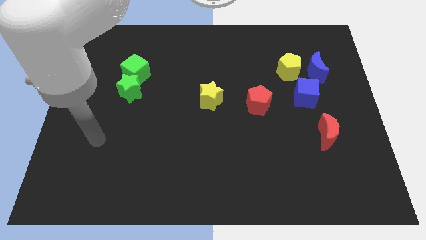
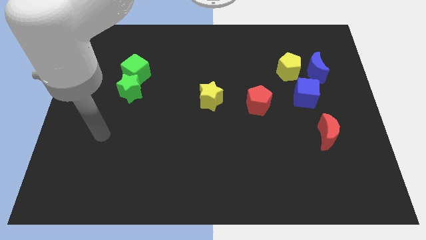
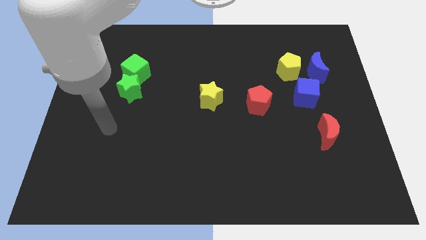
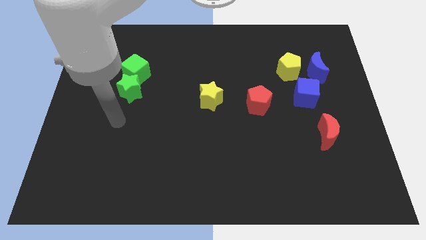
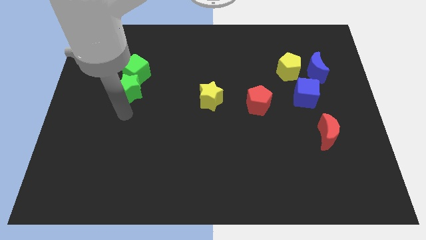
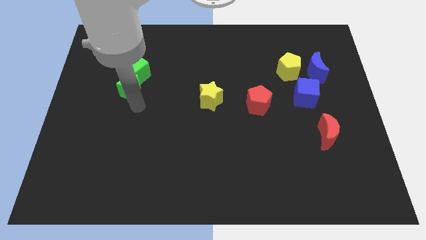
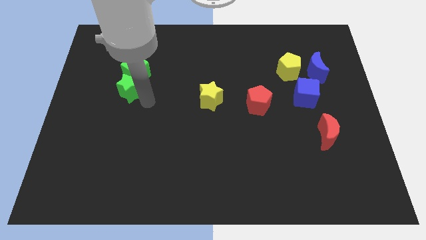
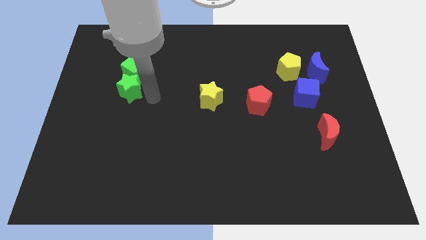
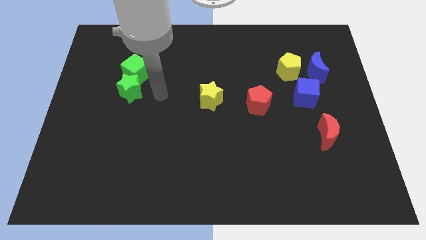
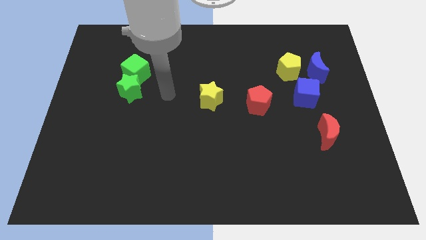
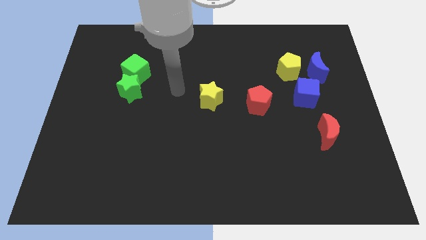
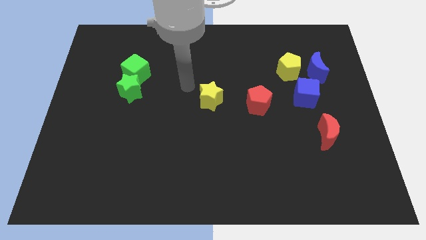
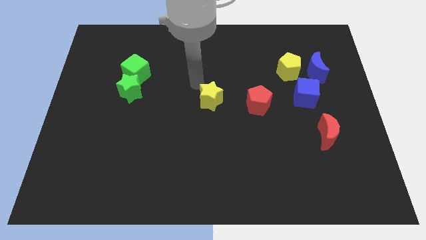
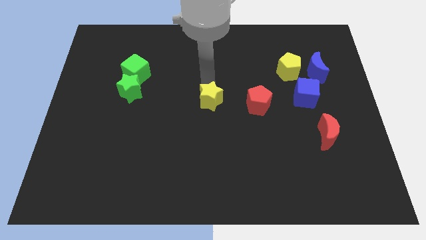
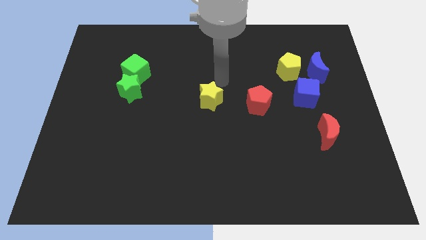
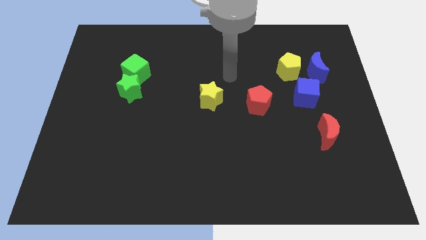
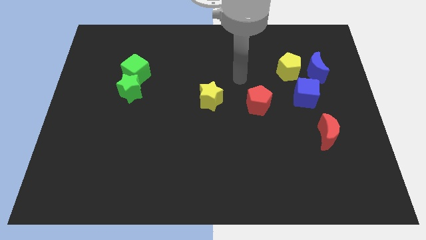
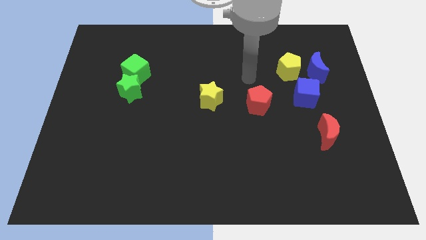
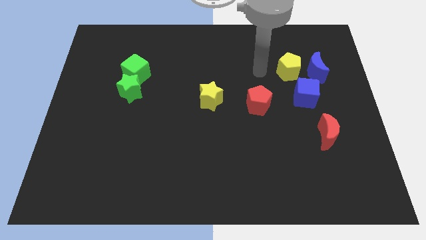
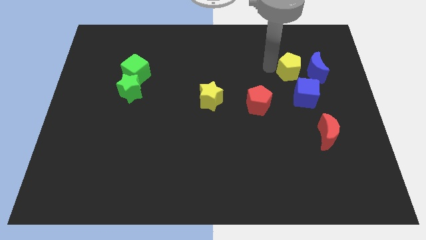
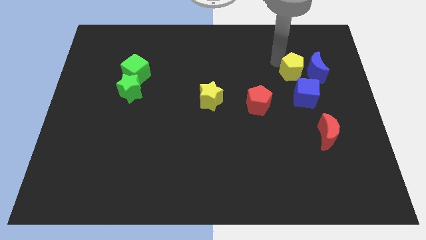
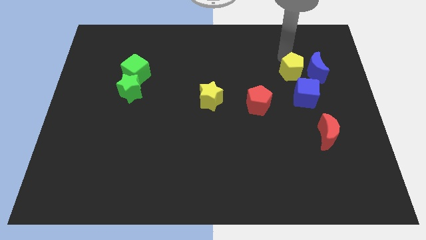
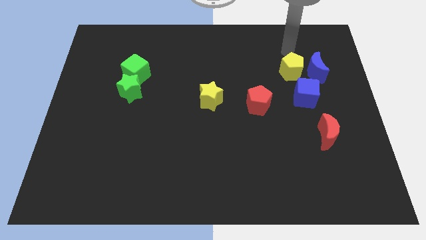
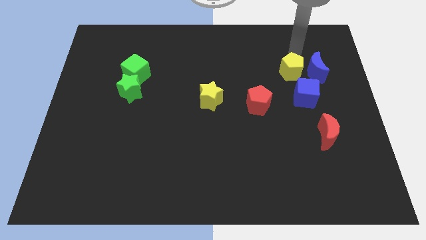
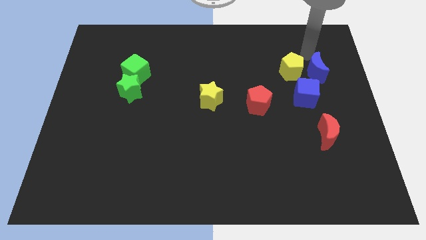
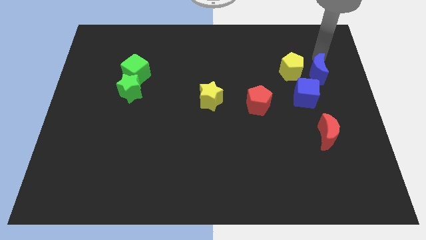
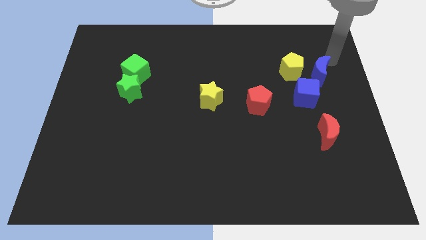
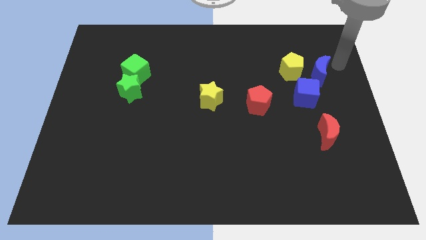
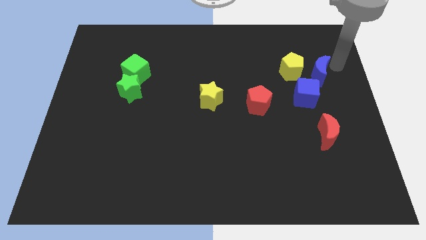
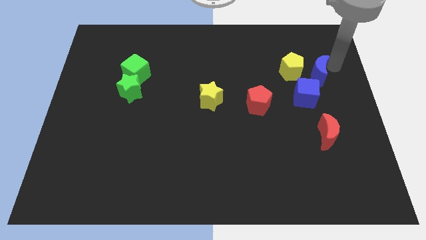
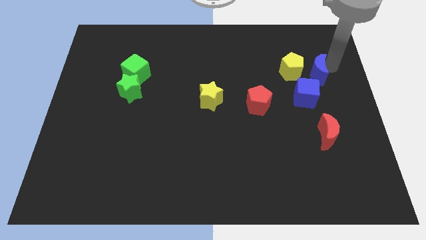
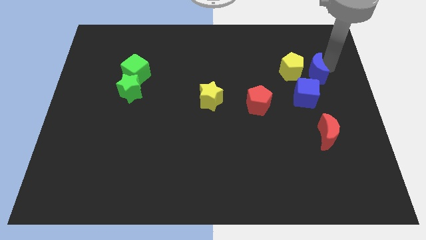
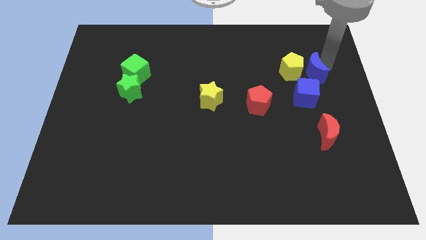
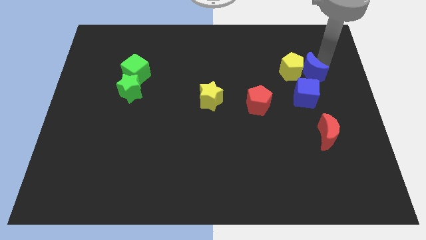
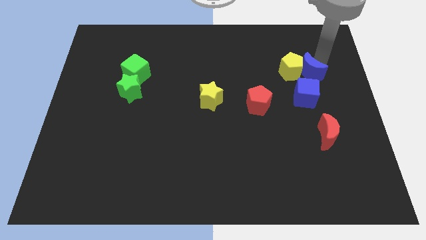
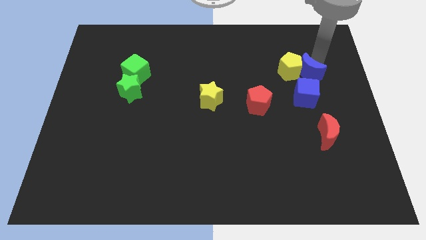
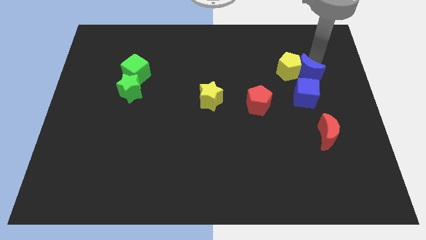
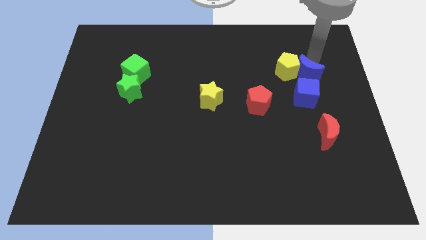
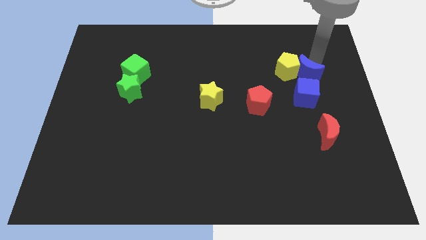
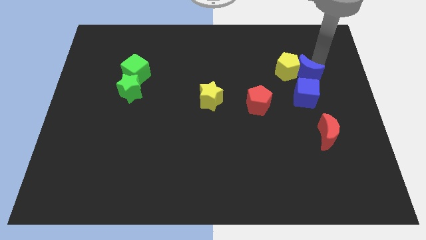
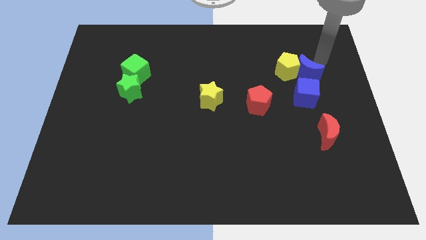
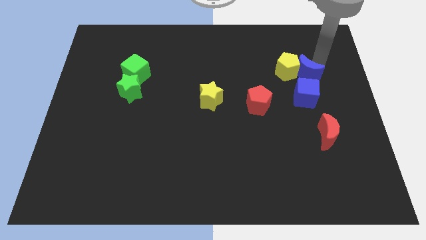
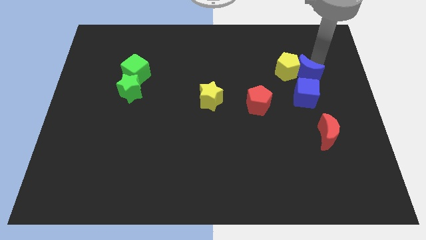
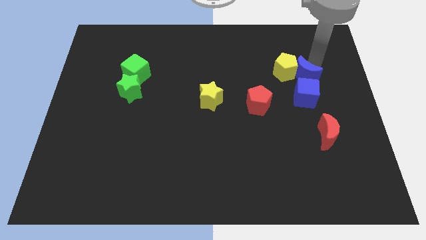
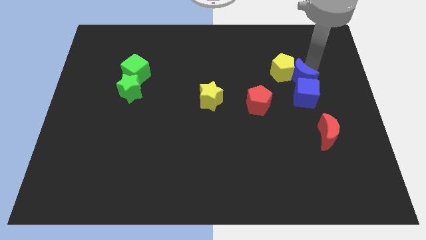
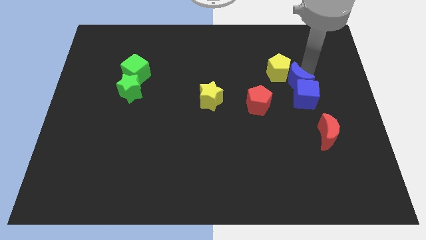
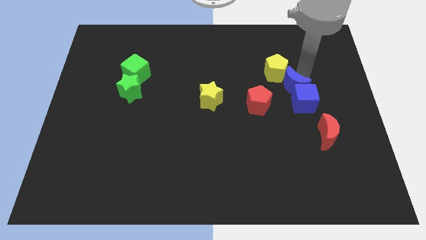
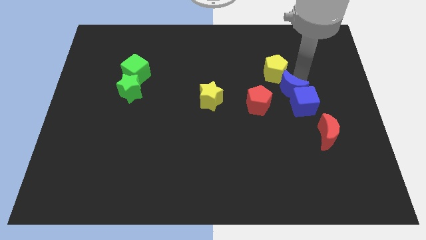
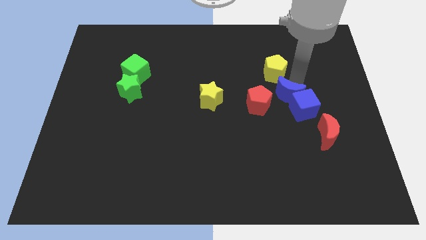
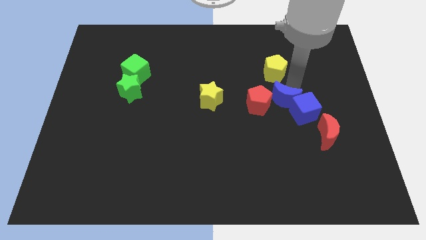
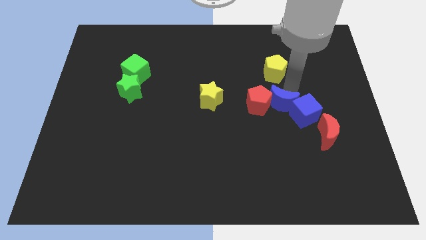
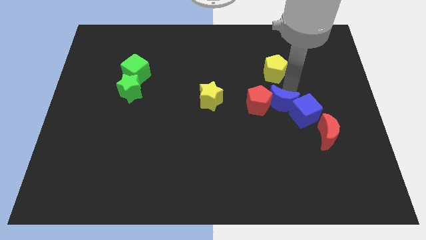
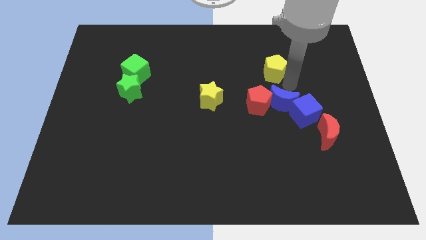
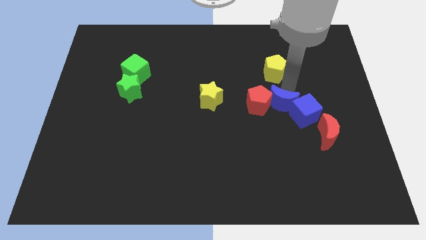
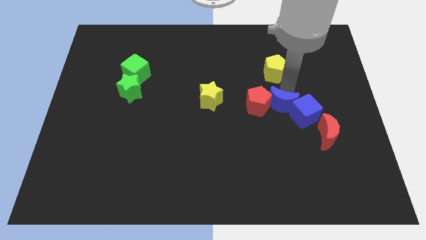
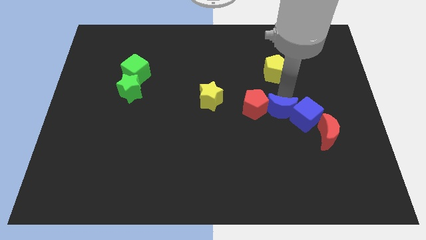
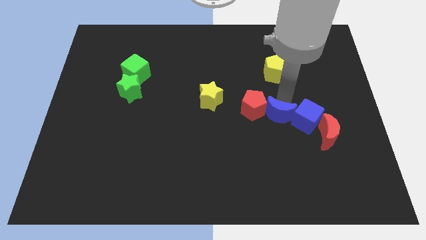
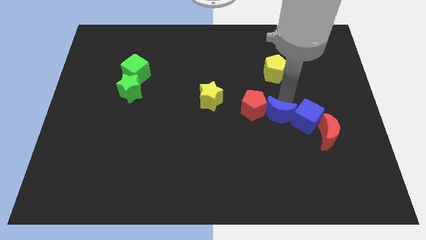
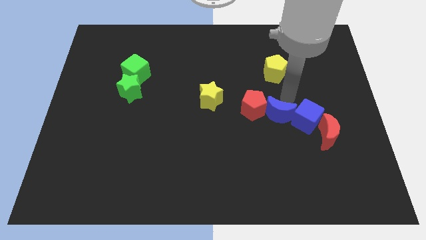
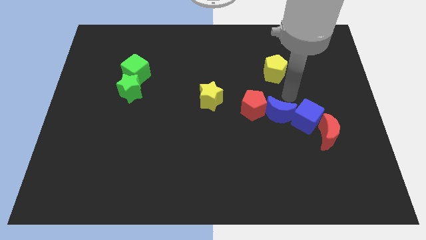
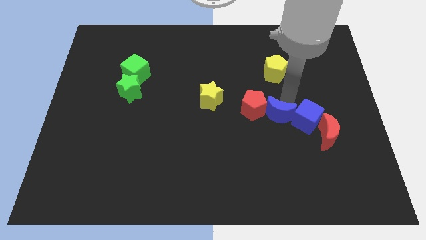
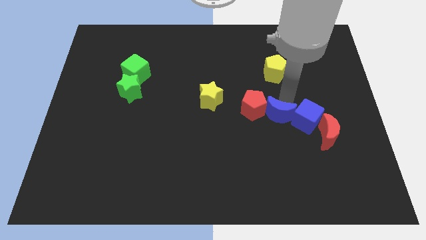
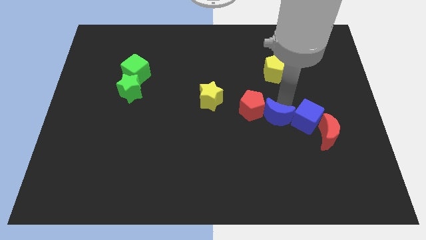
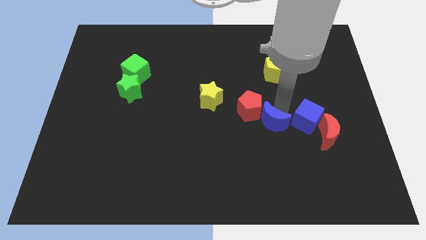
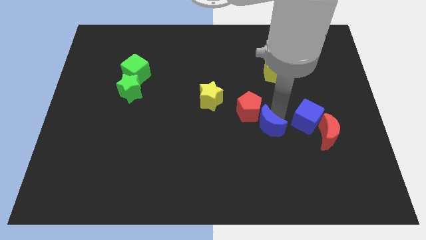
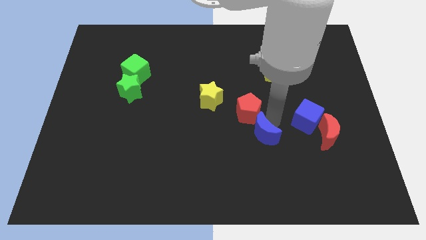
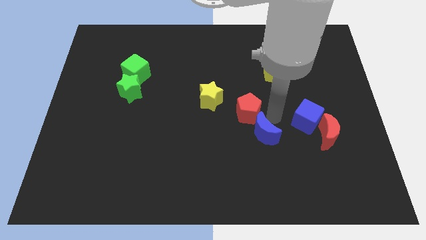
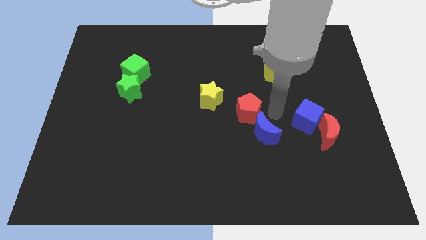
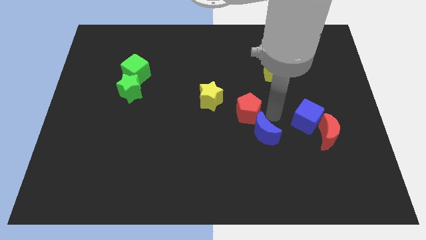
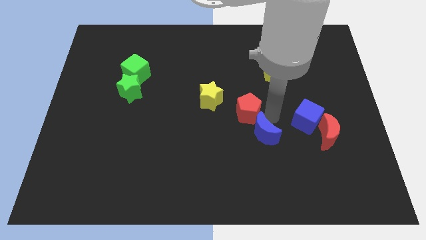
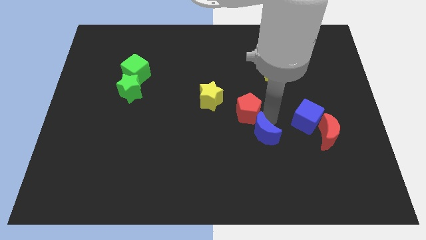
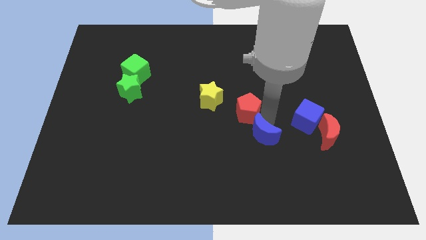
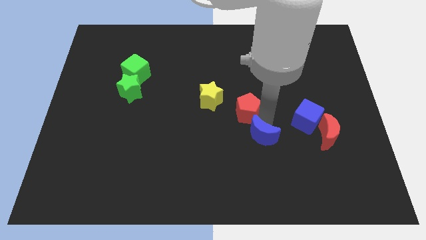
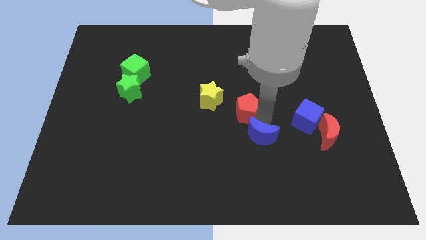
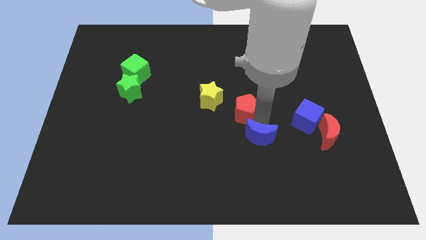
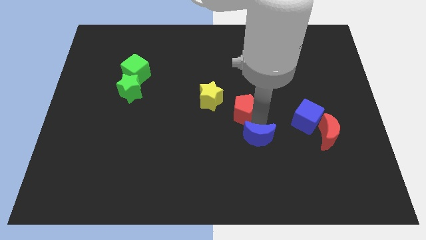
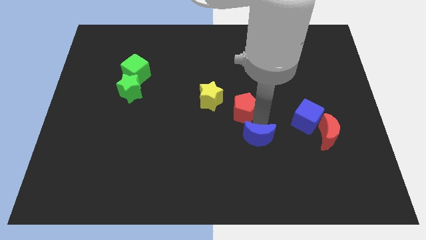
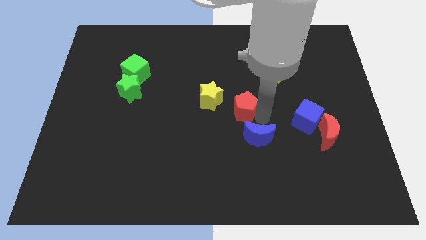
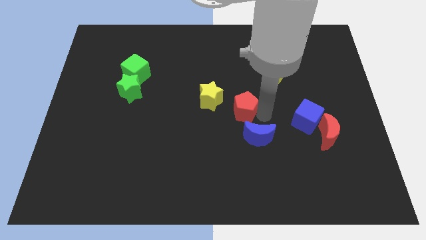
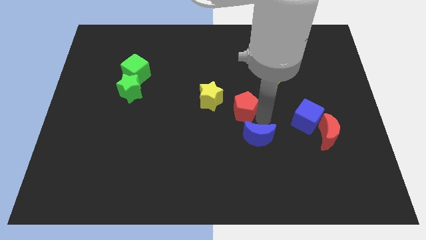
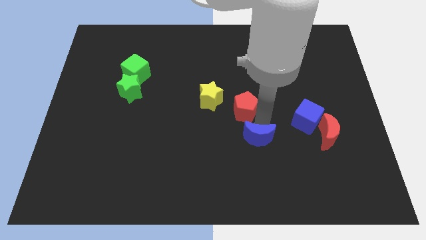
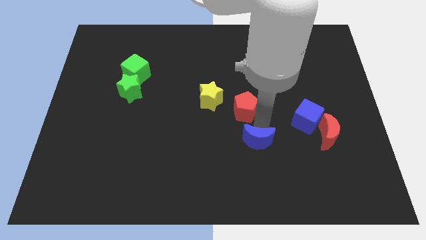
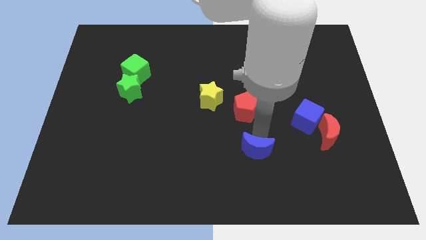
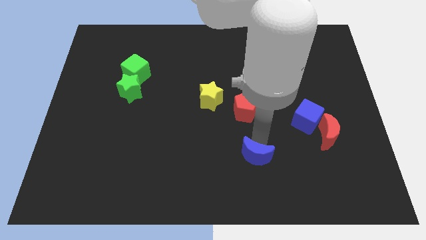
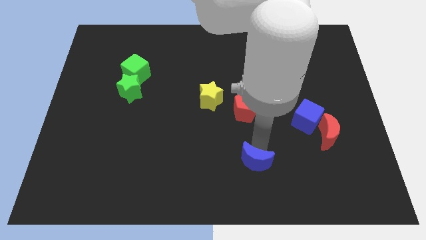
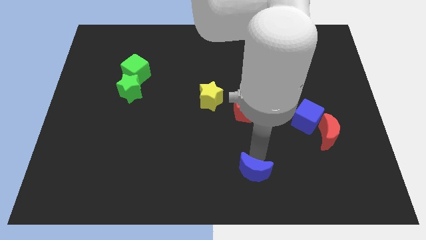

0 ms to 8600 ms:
push the blue moon to the bottom
